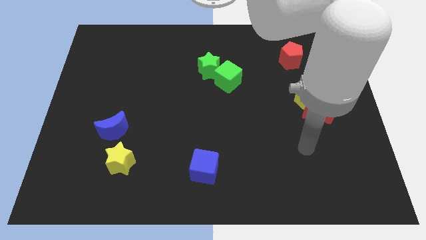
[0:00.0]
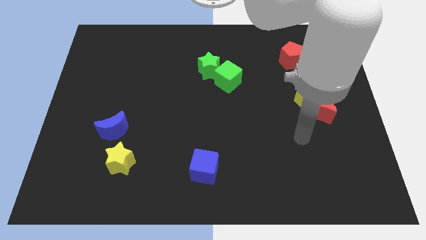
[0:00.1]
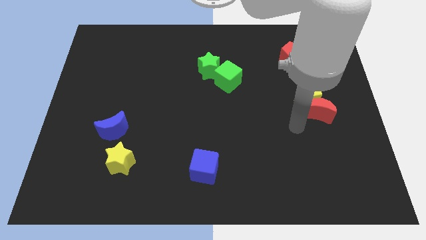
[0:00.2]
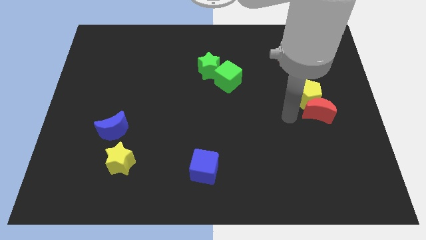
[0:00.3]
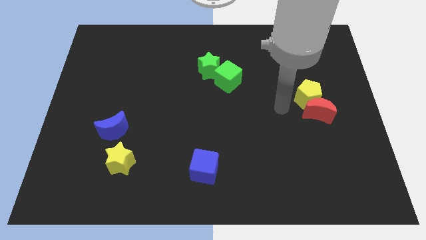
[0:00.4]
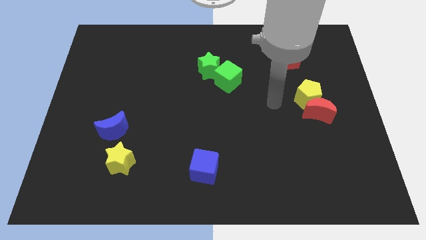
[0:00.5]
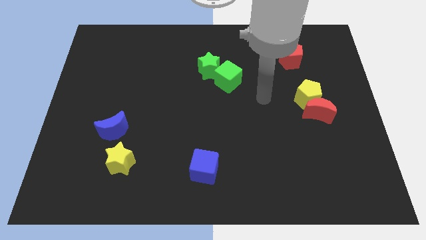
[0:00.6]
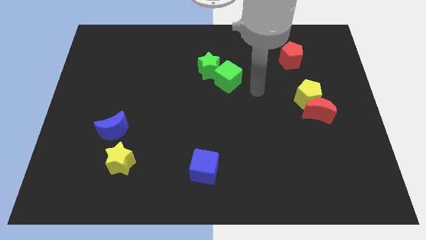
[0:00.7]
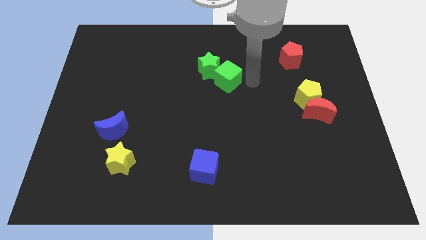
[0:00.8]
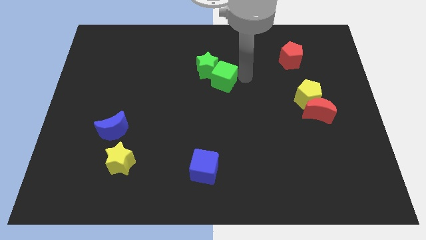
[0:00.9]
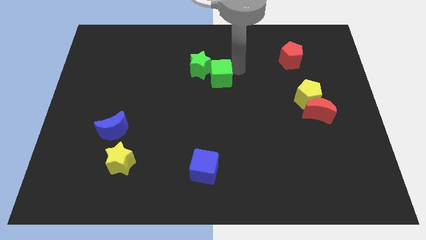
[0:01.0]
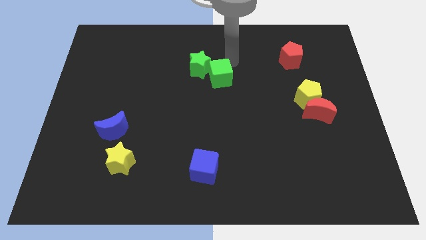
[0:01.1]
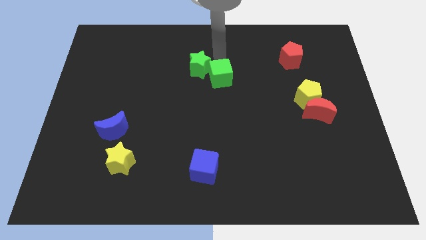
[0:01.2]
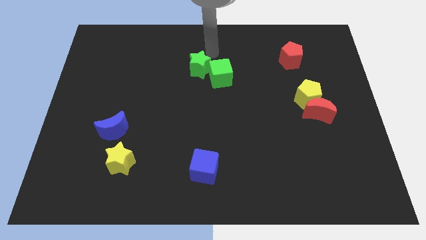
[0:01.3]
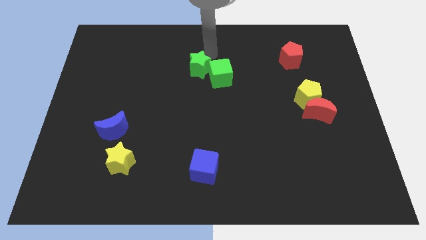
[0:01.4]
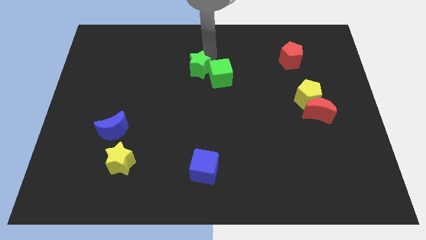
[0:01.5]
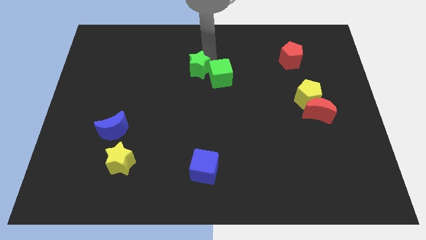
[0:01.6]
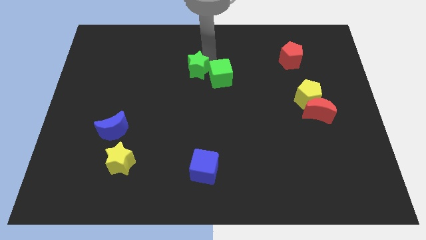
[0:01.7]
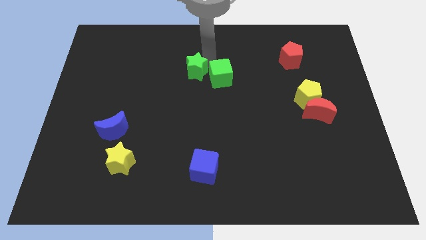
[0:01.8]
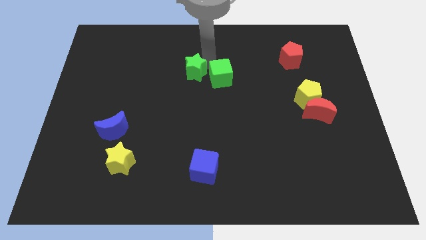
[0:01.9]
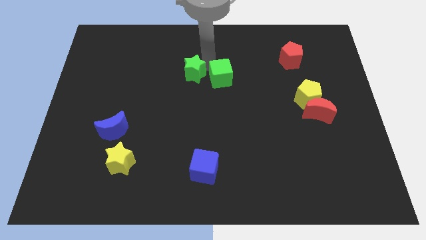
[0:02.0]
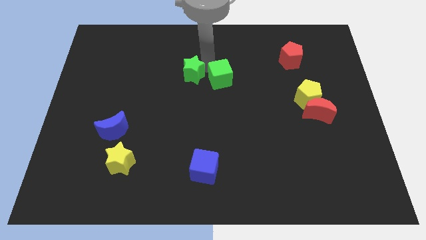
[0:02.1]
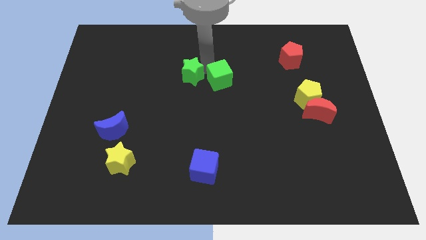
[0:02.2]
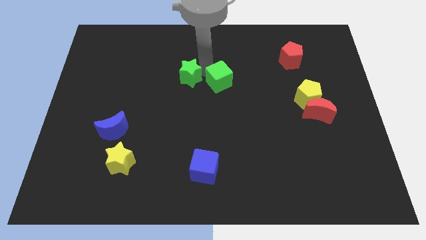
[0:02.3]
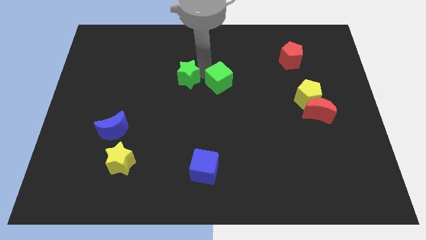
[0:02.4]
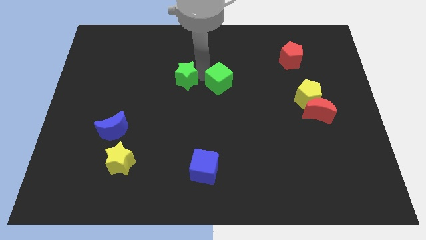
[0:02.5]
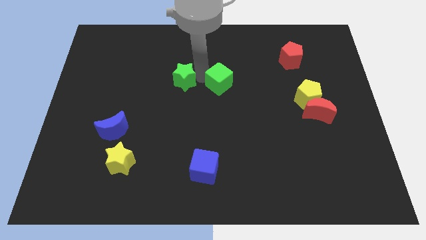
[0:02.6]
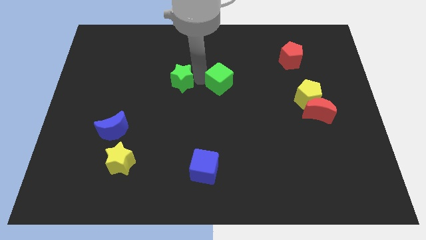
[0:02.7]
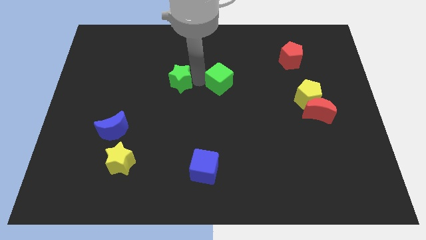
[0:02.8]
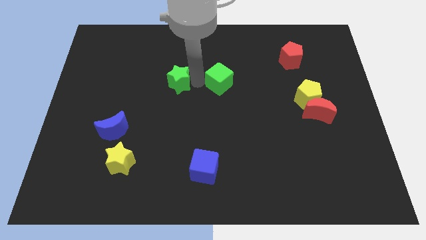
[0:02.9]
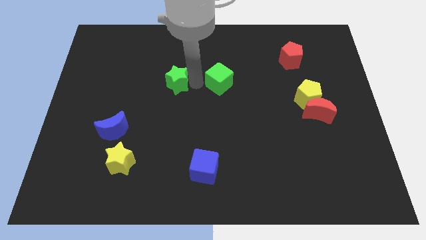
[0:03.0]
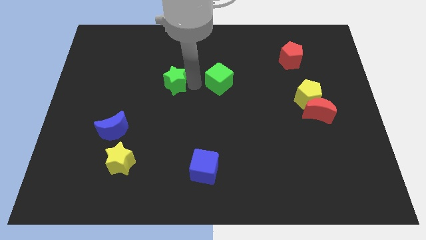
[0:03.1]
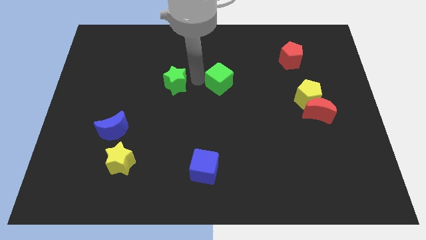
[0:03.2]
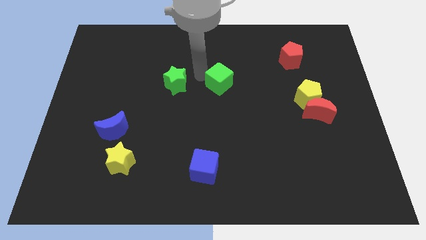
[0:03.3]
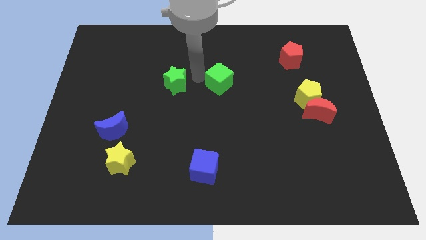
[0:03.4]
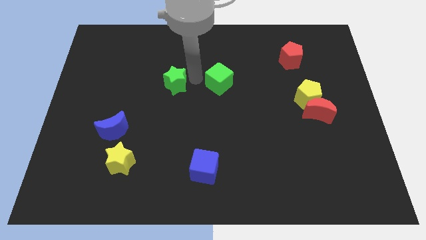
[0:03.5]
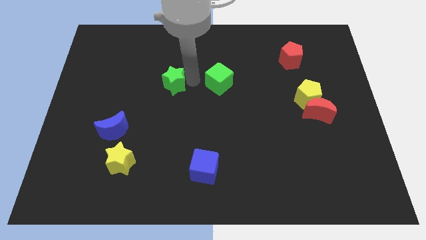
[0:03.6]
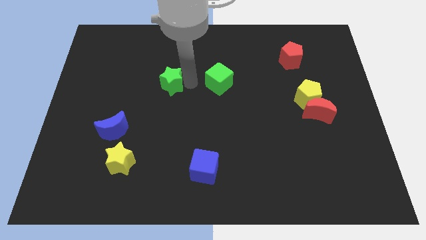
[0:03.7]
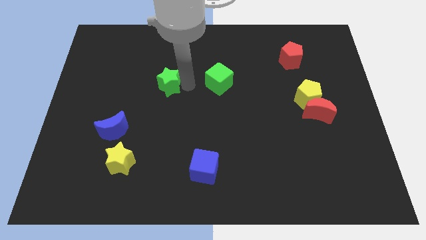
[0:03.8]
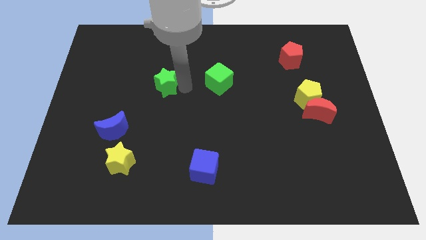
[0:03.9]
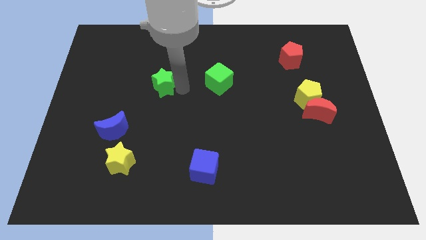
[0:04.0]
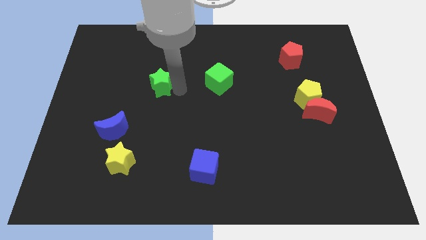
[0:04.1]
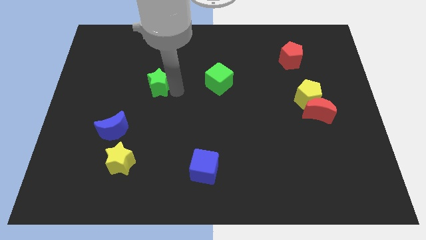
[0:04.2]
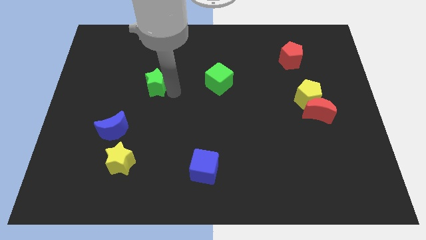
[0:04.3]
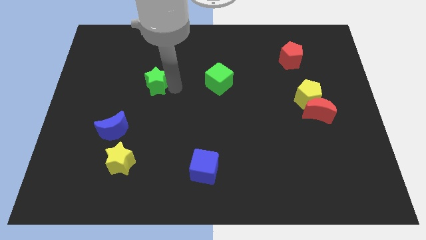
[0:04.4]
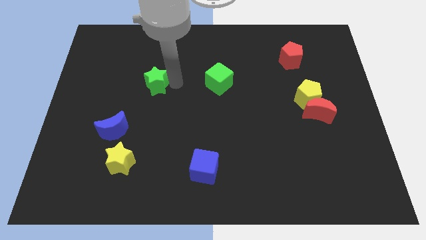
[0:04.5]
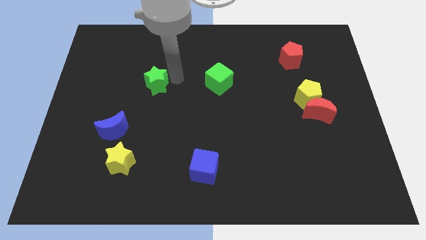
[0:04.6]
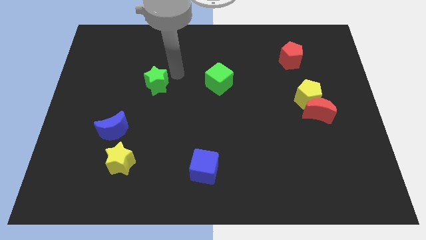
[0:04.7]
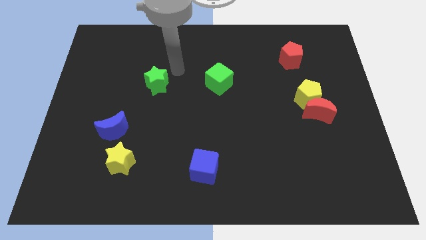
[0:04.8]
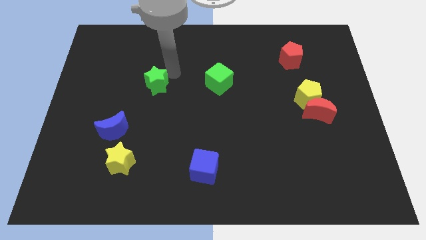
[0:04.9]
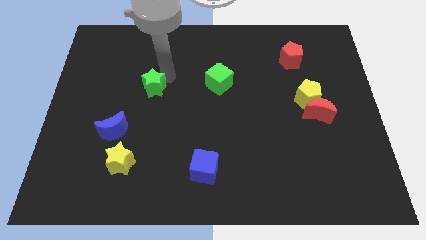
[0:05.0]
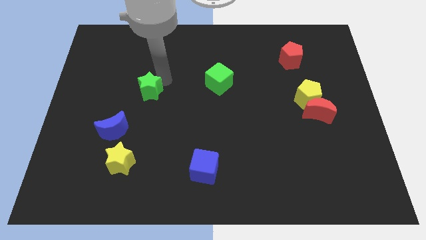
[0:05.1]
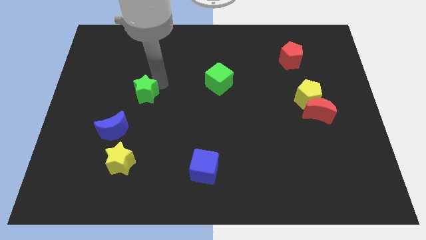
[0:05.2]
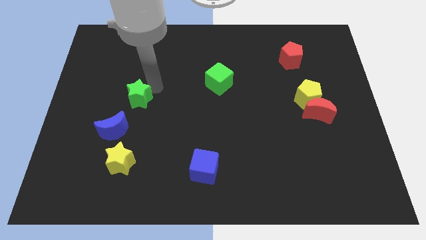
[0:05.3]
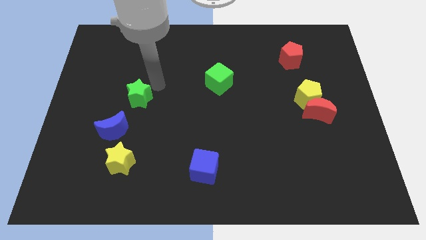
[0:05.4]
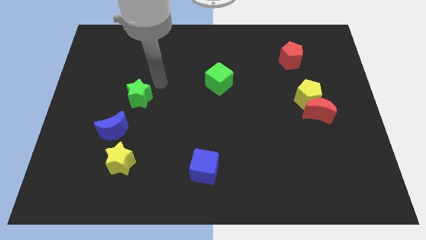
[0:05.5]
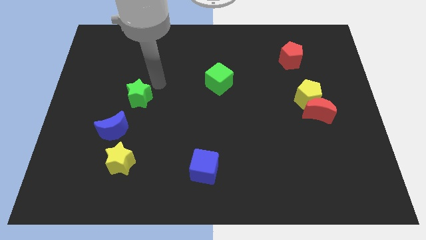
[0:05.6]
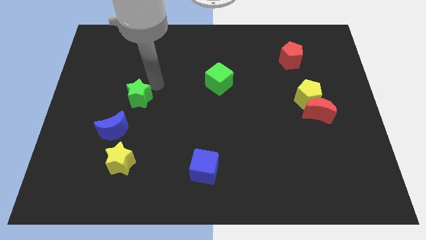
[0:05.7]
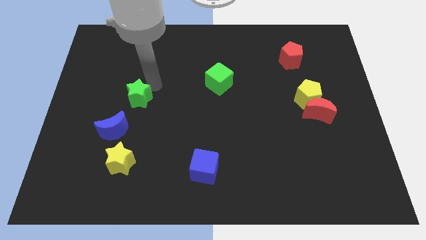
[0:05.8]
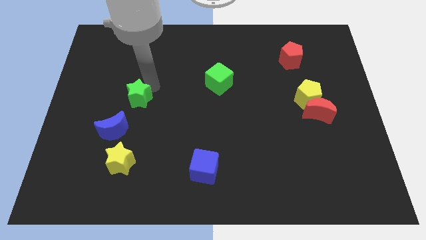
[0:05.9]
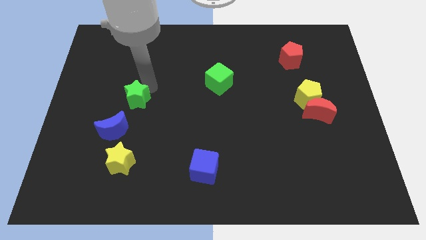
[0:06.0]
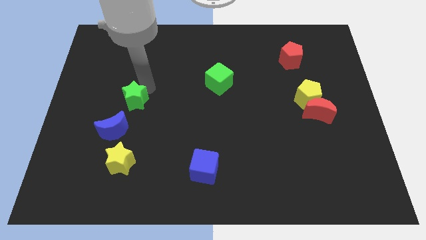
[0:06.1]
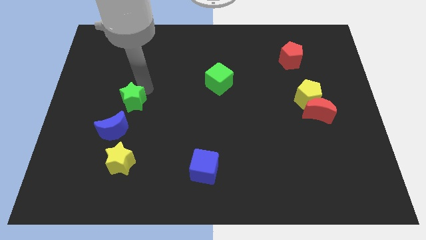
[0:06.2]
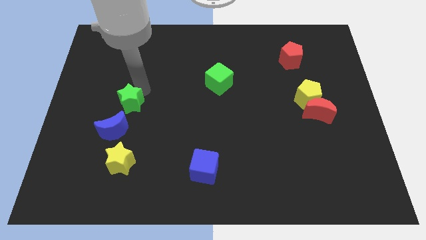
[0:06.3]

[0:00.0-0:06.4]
push the green star downwards and left diagonally

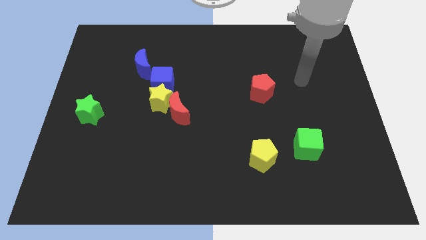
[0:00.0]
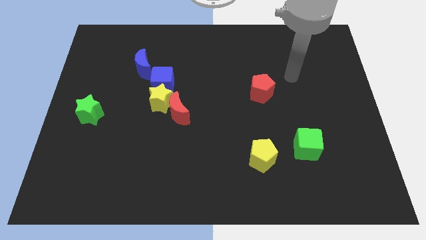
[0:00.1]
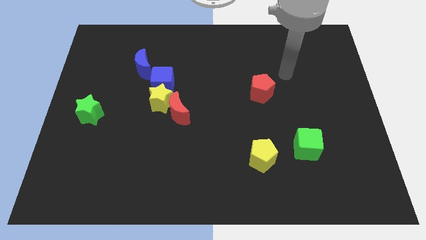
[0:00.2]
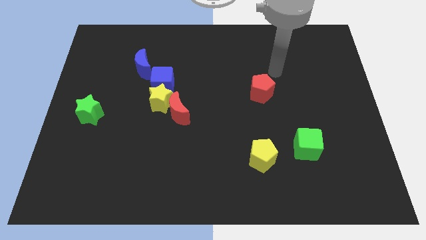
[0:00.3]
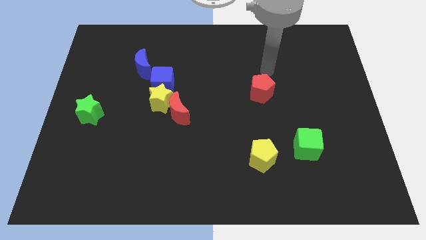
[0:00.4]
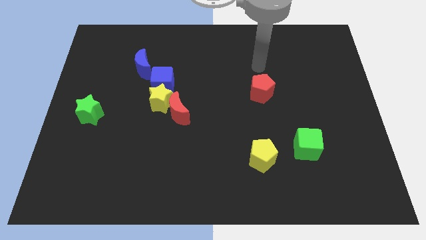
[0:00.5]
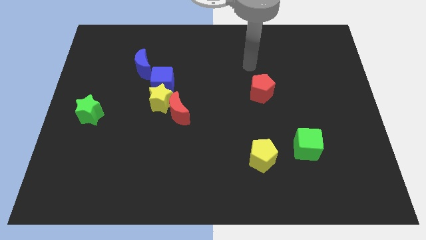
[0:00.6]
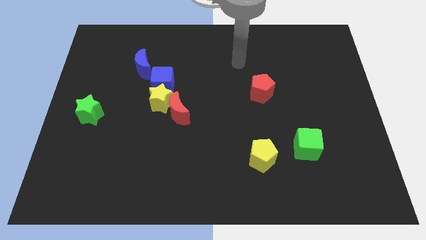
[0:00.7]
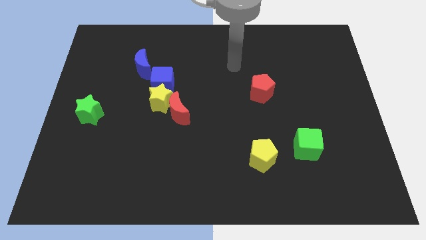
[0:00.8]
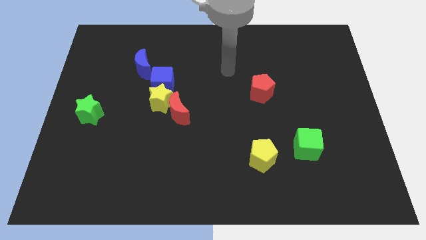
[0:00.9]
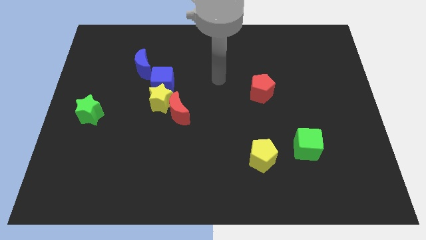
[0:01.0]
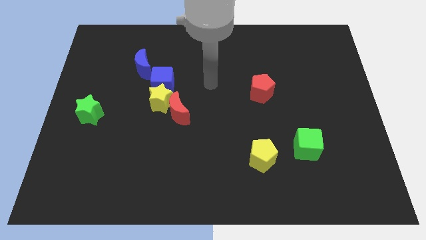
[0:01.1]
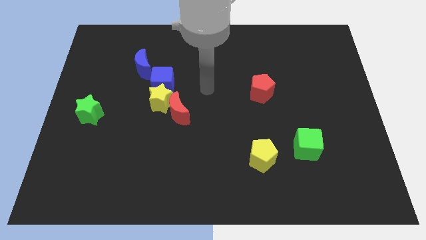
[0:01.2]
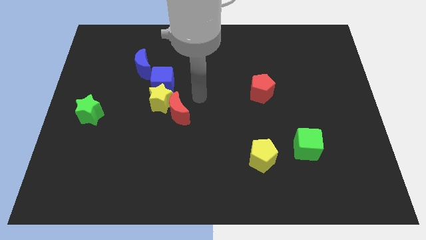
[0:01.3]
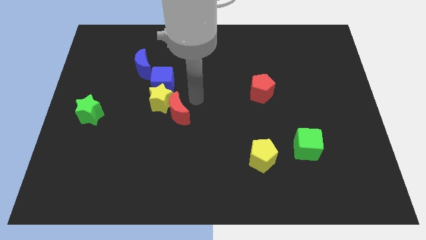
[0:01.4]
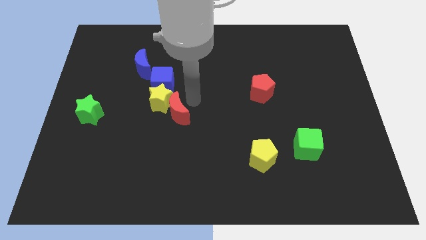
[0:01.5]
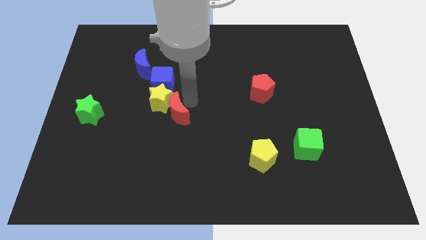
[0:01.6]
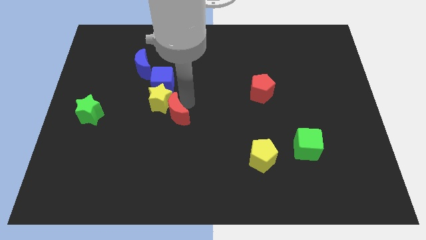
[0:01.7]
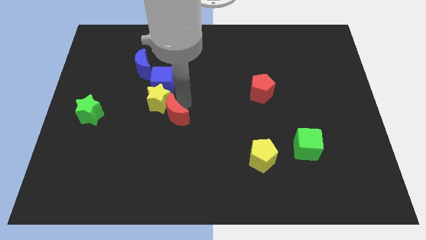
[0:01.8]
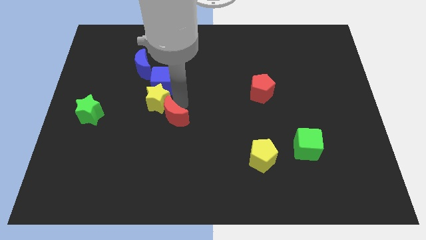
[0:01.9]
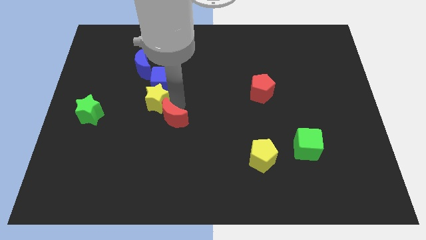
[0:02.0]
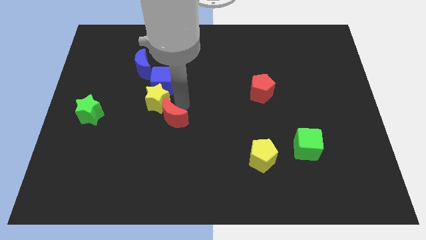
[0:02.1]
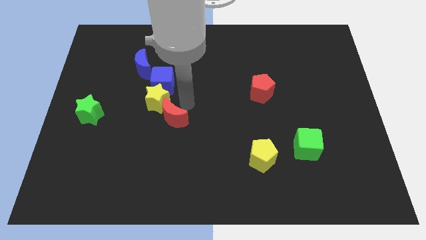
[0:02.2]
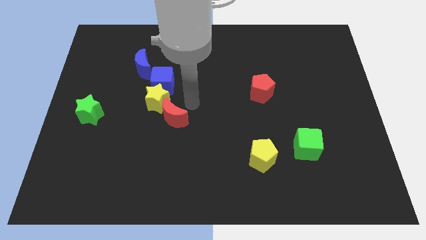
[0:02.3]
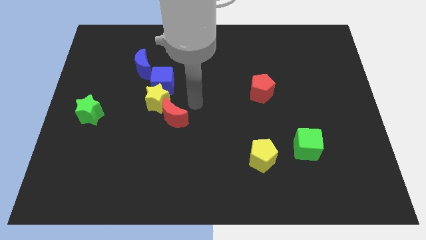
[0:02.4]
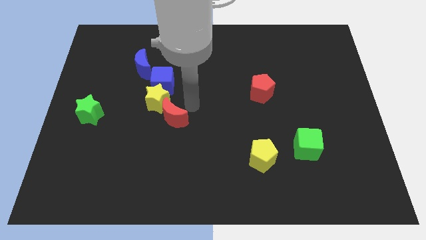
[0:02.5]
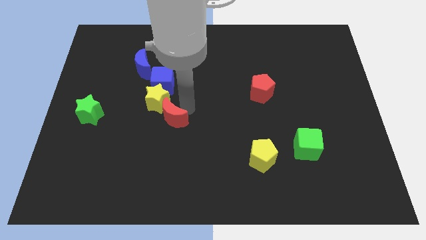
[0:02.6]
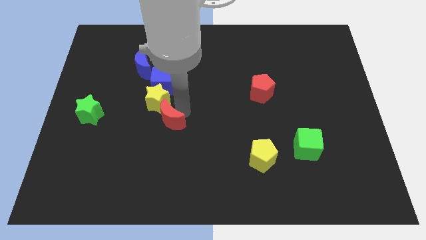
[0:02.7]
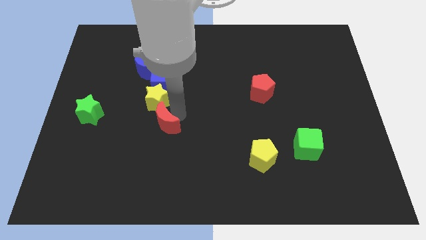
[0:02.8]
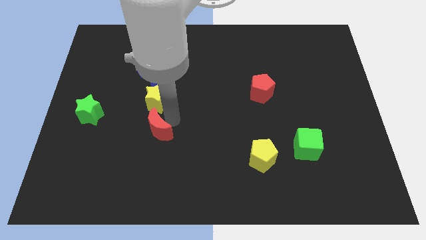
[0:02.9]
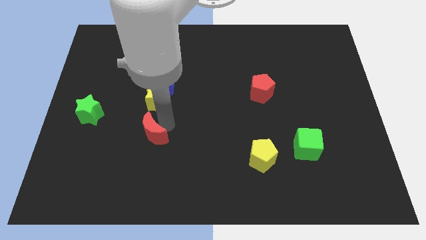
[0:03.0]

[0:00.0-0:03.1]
slightly push the red moon diagonally downwards and to the left
